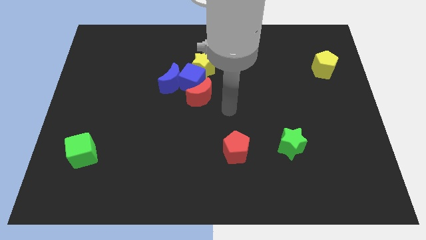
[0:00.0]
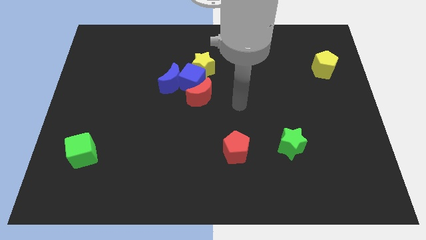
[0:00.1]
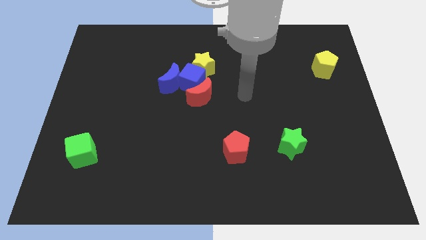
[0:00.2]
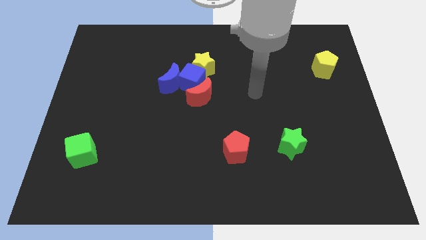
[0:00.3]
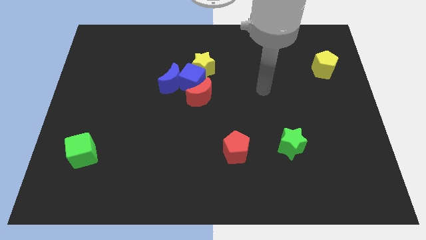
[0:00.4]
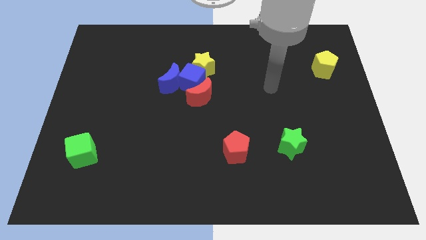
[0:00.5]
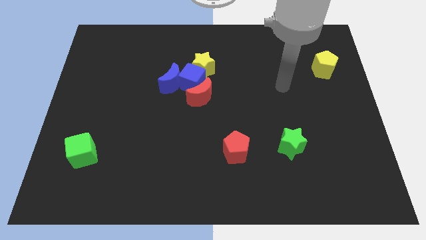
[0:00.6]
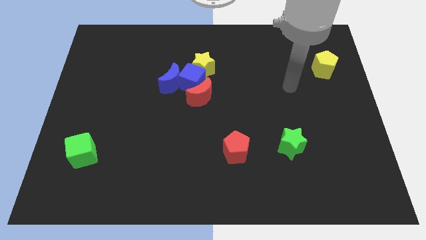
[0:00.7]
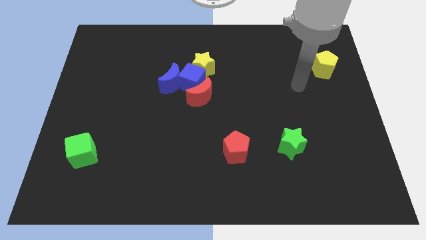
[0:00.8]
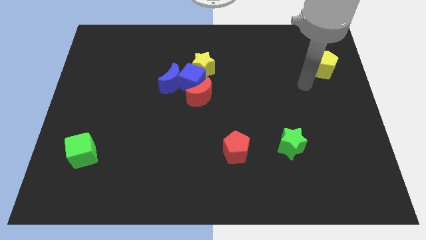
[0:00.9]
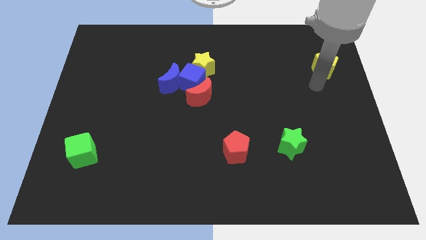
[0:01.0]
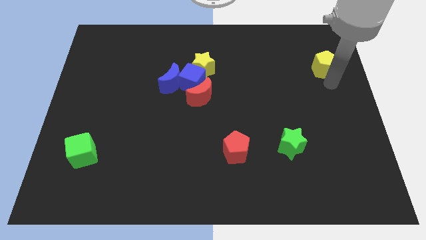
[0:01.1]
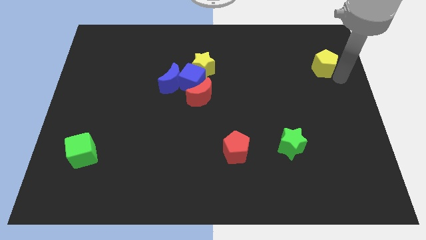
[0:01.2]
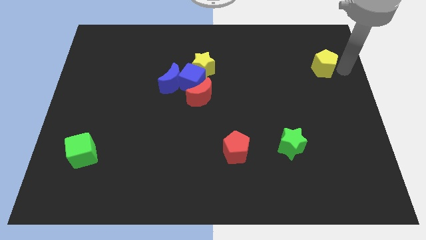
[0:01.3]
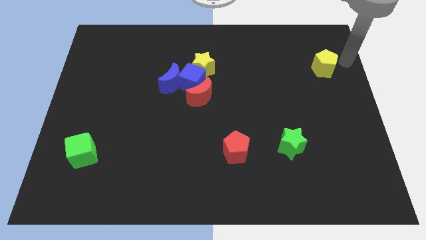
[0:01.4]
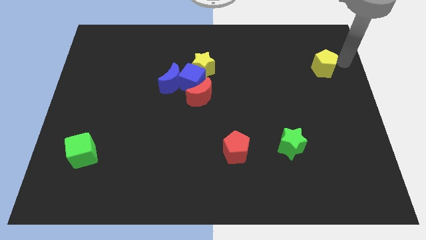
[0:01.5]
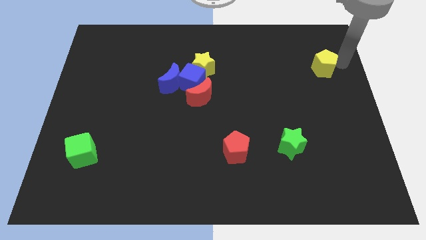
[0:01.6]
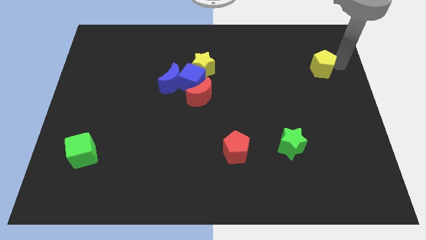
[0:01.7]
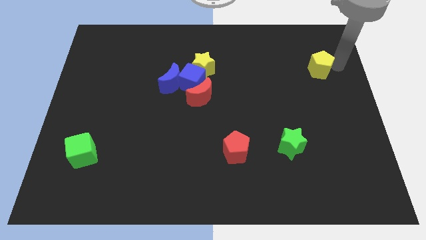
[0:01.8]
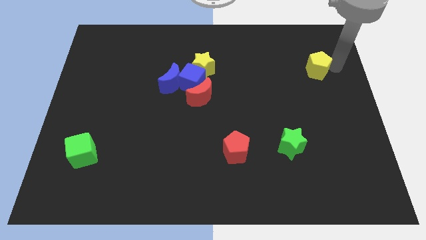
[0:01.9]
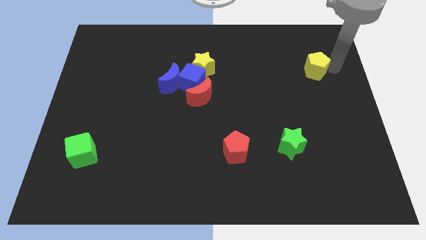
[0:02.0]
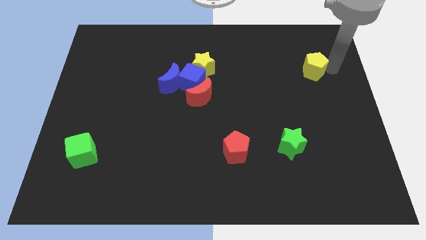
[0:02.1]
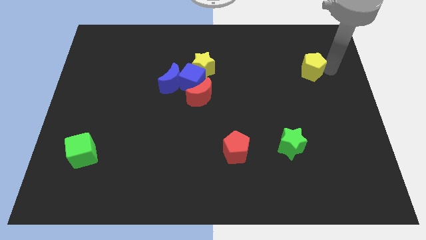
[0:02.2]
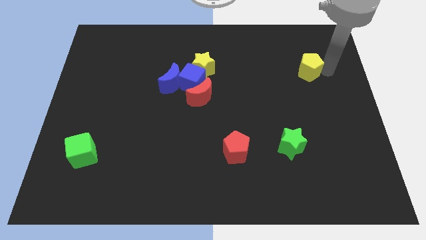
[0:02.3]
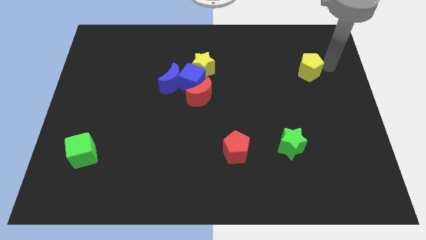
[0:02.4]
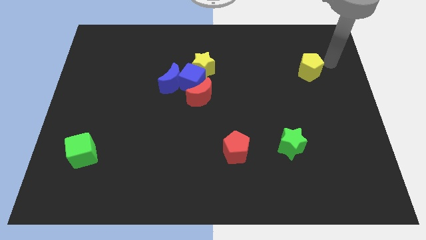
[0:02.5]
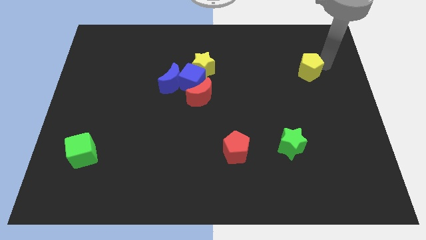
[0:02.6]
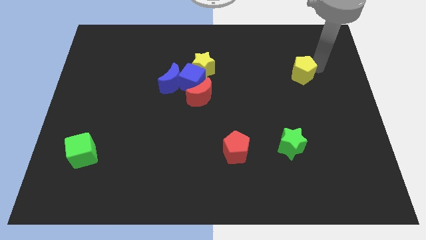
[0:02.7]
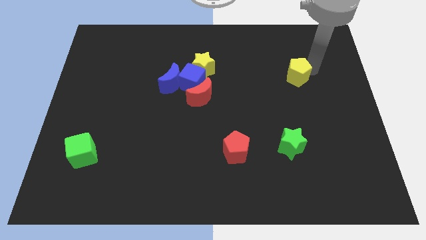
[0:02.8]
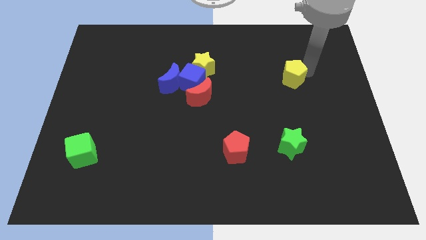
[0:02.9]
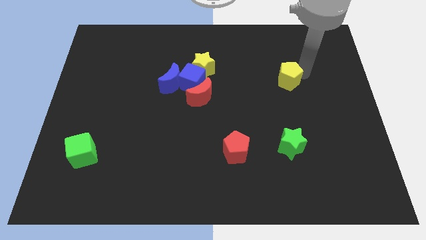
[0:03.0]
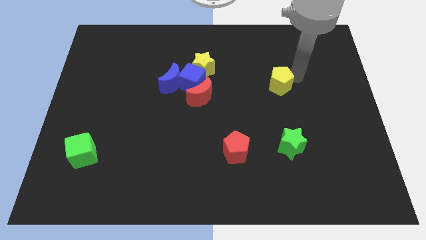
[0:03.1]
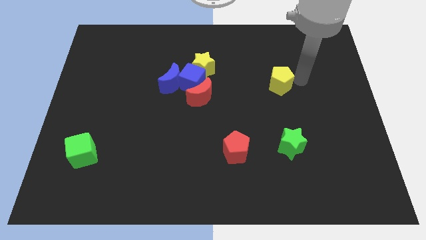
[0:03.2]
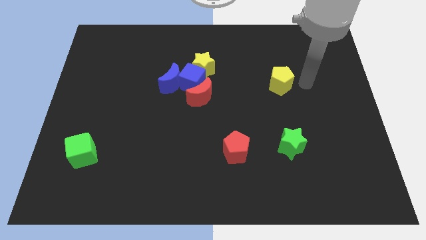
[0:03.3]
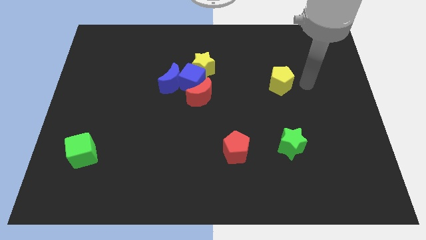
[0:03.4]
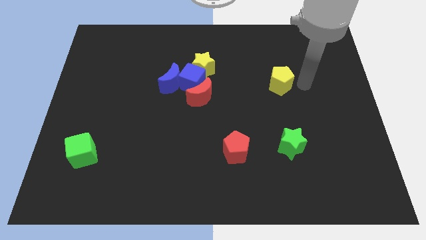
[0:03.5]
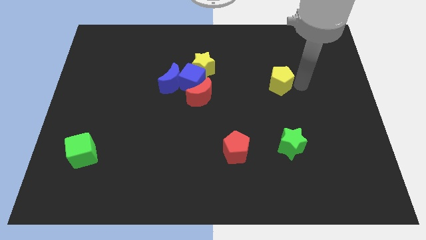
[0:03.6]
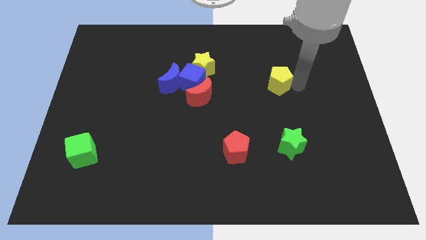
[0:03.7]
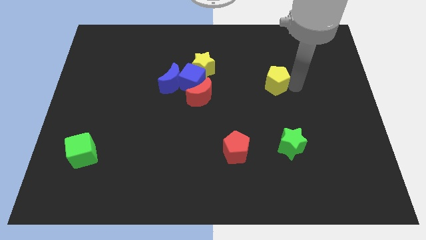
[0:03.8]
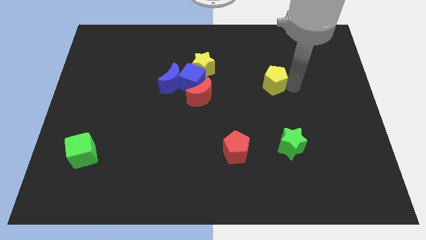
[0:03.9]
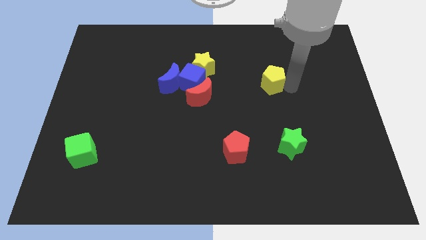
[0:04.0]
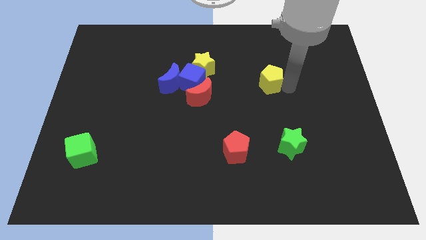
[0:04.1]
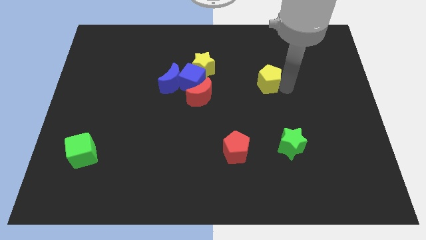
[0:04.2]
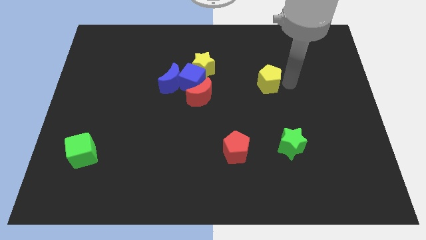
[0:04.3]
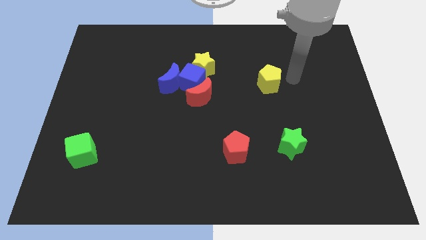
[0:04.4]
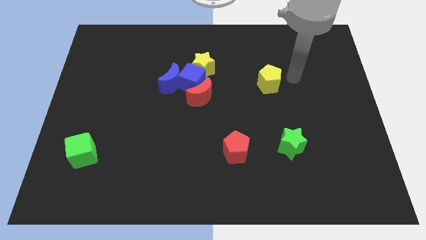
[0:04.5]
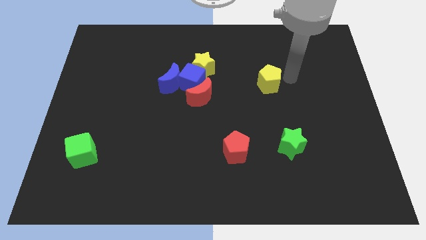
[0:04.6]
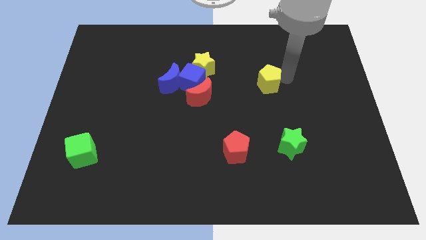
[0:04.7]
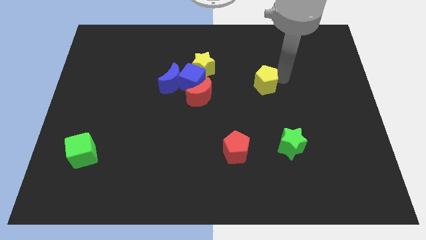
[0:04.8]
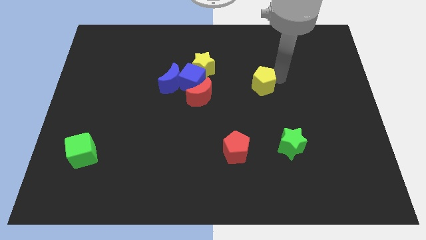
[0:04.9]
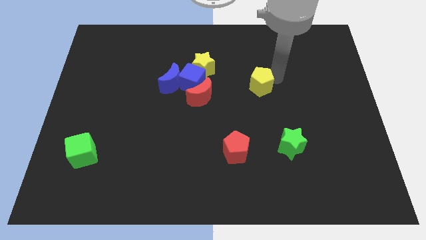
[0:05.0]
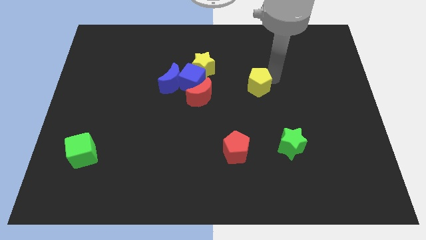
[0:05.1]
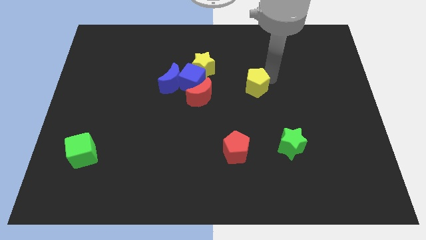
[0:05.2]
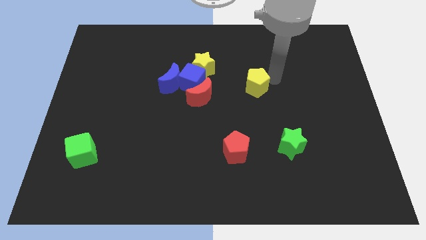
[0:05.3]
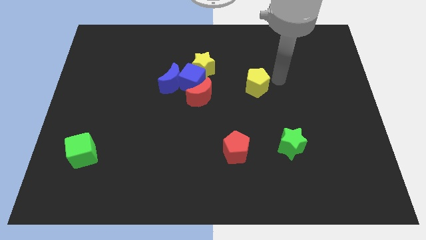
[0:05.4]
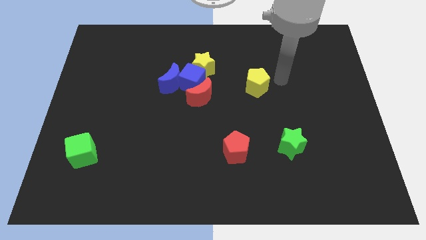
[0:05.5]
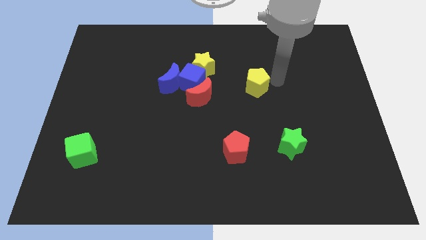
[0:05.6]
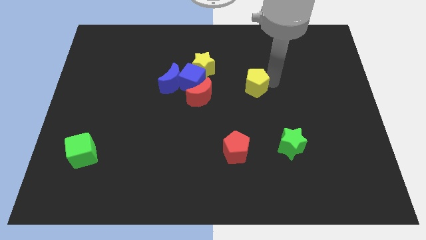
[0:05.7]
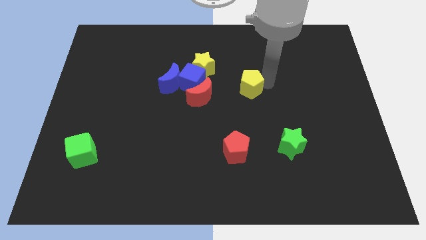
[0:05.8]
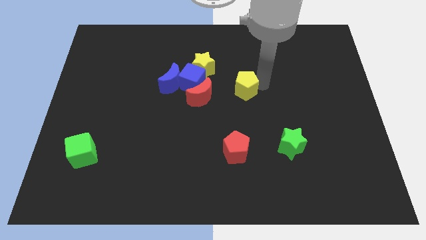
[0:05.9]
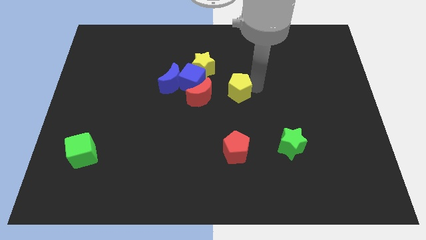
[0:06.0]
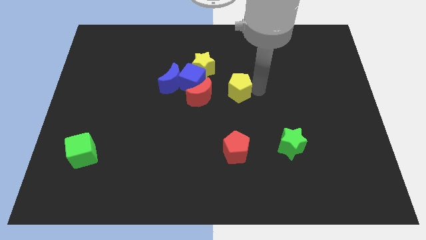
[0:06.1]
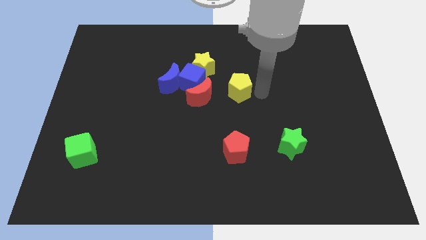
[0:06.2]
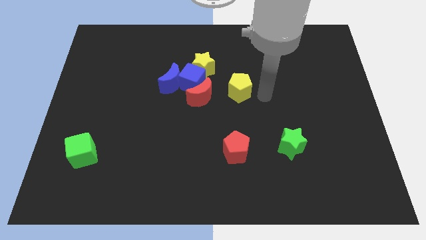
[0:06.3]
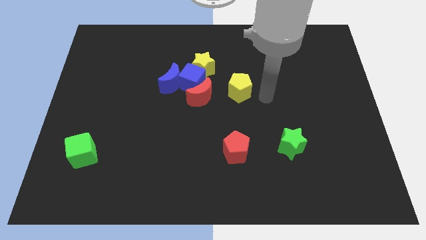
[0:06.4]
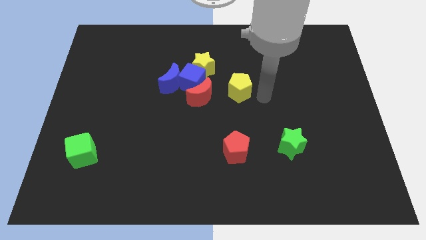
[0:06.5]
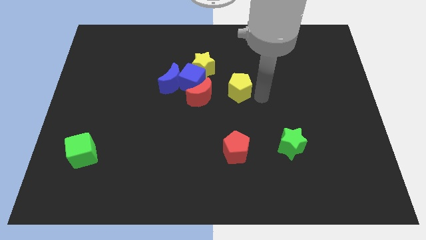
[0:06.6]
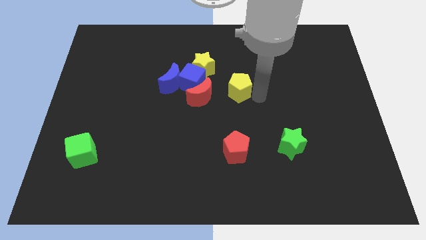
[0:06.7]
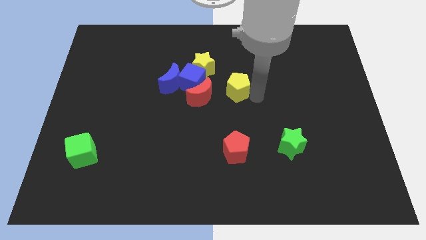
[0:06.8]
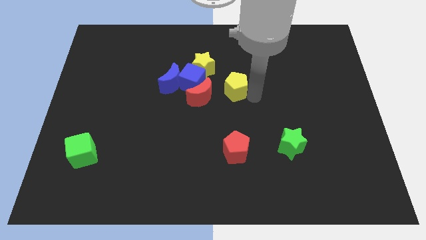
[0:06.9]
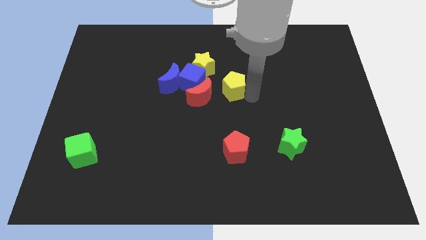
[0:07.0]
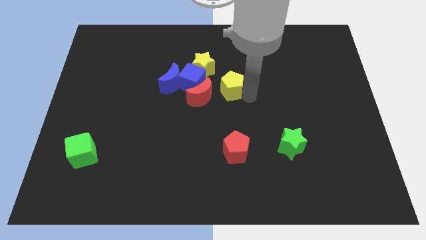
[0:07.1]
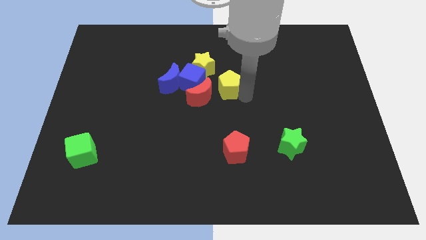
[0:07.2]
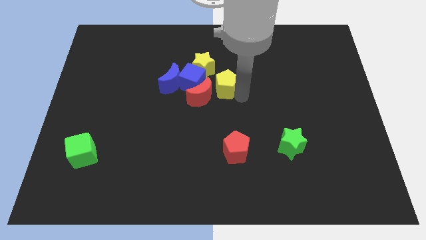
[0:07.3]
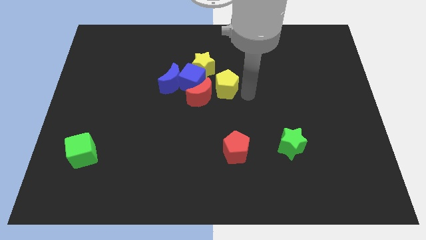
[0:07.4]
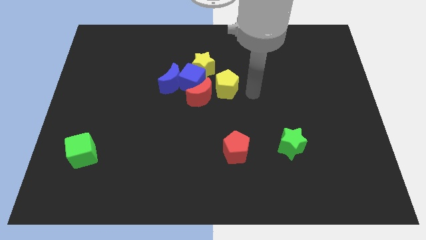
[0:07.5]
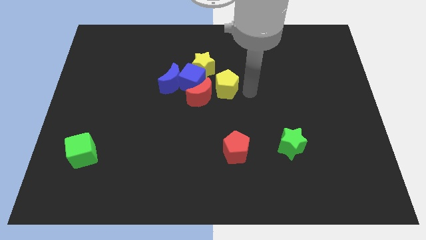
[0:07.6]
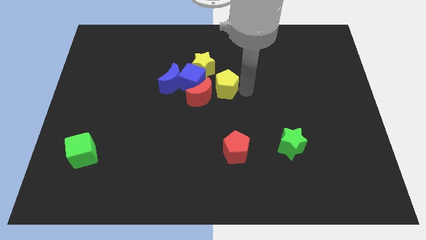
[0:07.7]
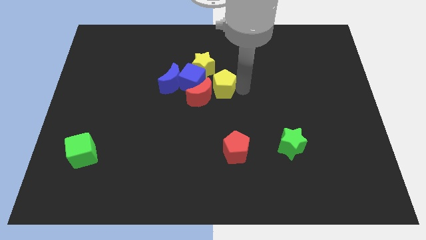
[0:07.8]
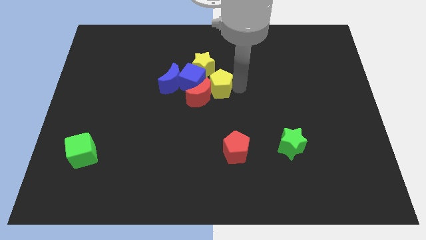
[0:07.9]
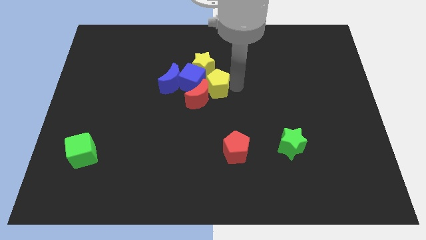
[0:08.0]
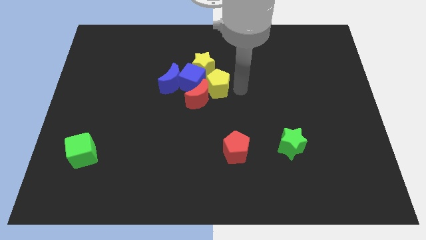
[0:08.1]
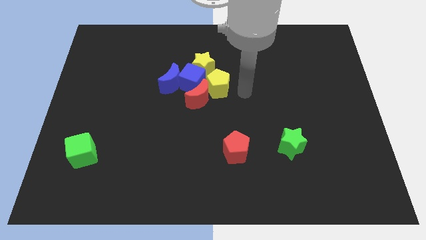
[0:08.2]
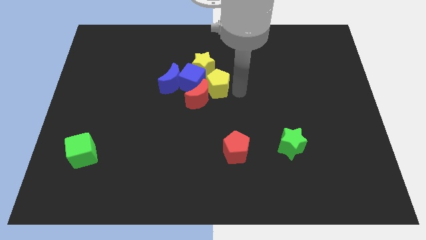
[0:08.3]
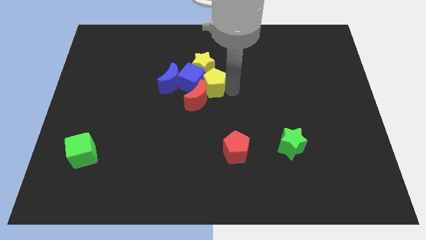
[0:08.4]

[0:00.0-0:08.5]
move the yellow pentagon to the blue cube
